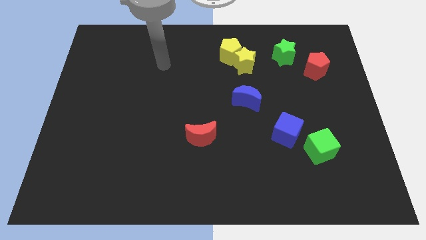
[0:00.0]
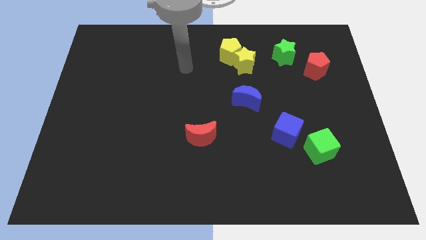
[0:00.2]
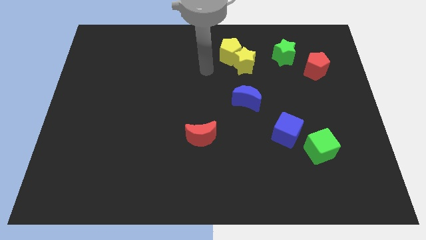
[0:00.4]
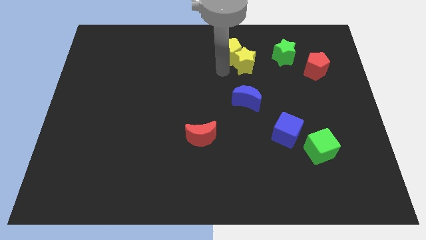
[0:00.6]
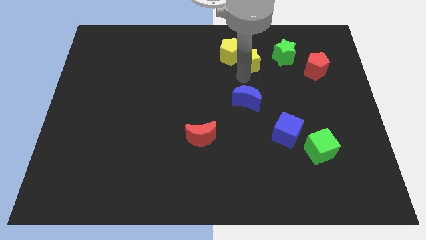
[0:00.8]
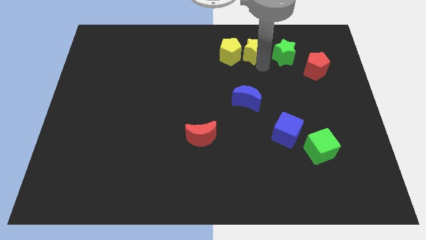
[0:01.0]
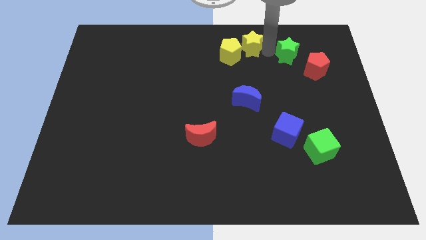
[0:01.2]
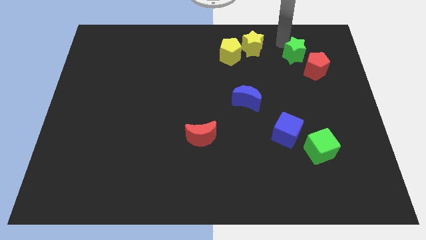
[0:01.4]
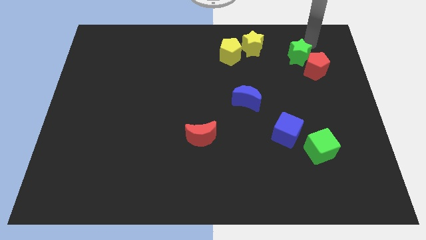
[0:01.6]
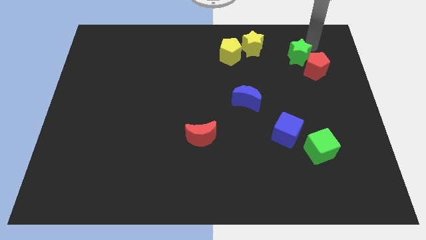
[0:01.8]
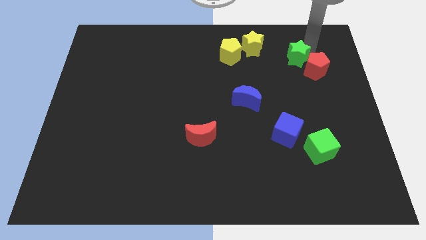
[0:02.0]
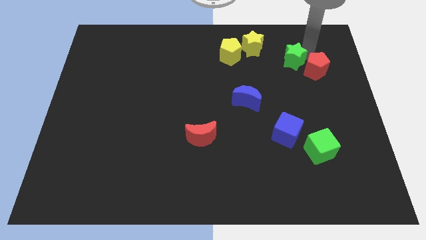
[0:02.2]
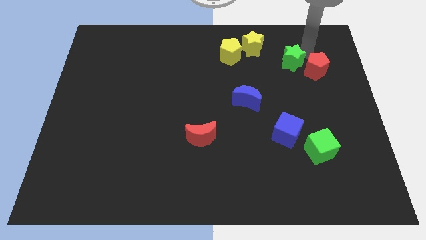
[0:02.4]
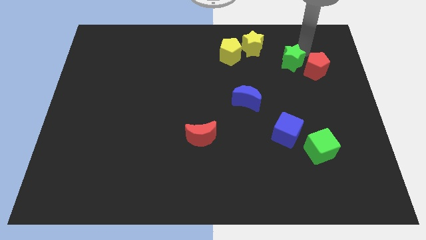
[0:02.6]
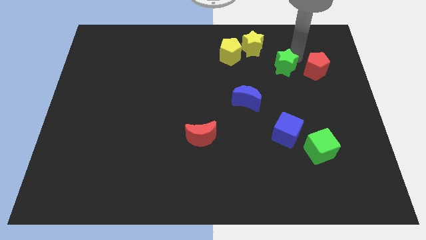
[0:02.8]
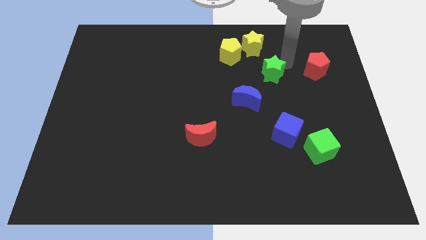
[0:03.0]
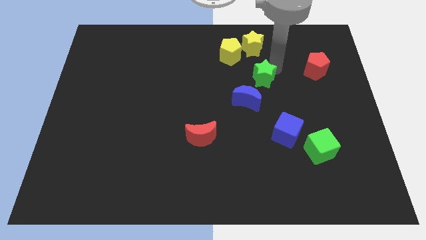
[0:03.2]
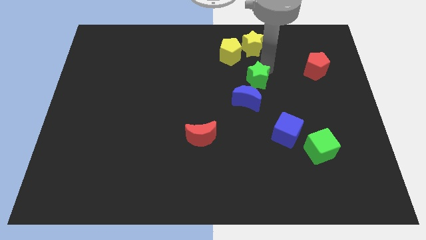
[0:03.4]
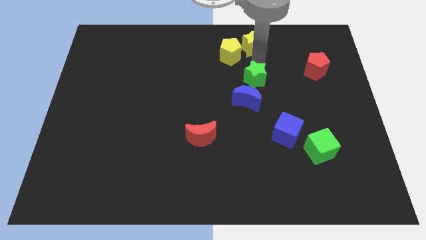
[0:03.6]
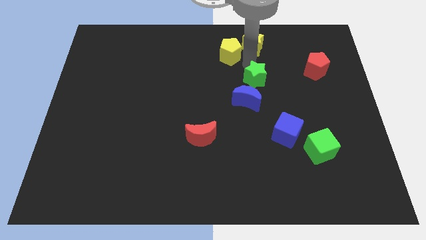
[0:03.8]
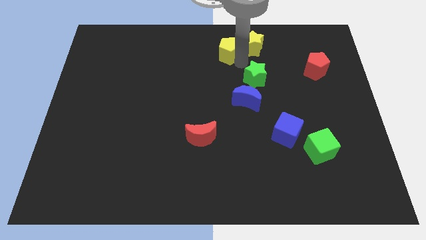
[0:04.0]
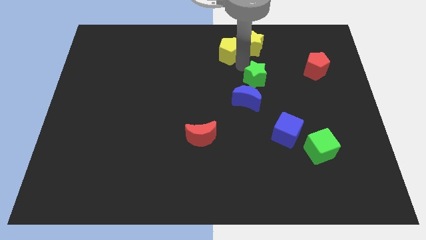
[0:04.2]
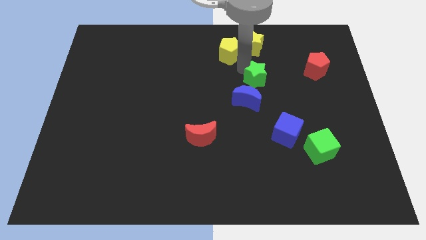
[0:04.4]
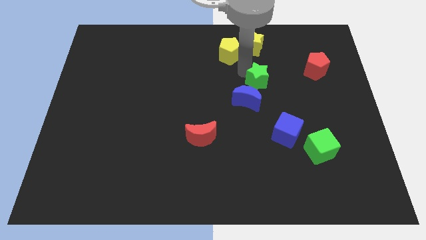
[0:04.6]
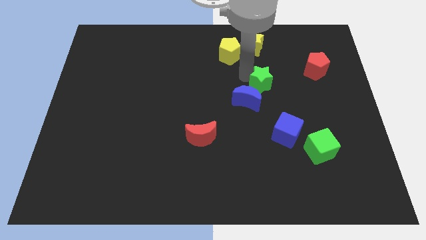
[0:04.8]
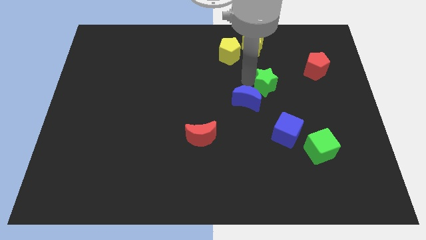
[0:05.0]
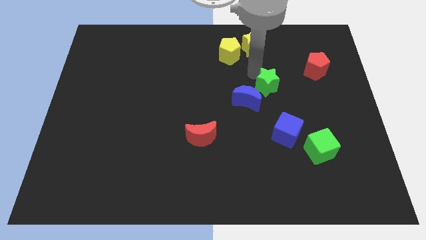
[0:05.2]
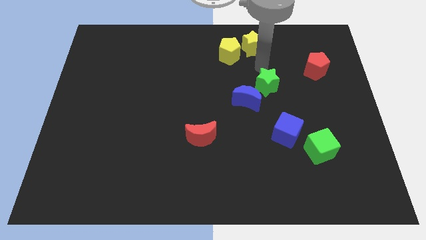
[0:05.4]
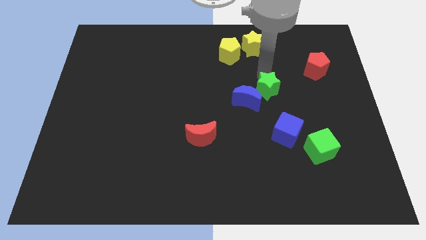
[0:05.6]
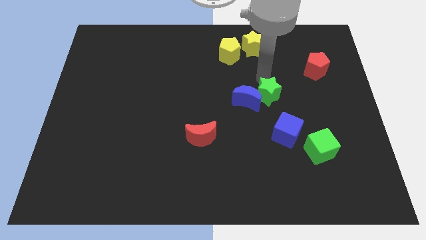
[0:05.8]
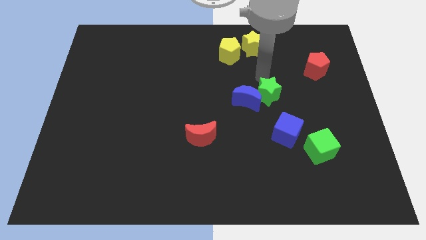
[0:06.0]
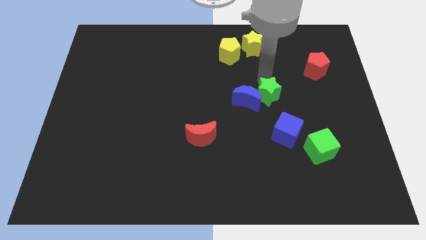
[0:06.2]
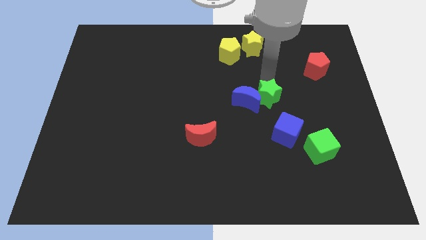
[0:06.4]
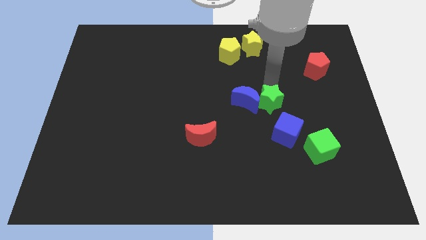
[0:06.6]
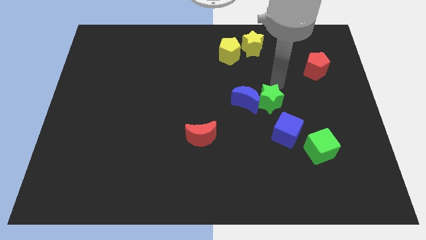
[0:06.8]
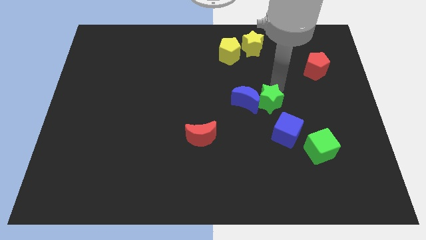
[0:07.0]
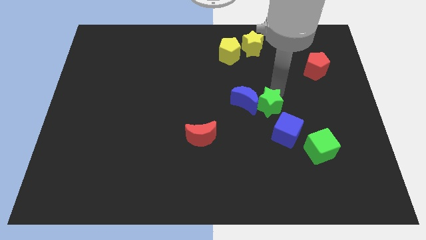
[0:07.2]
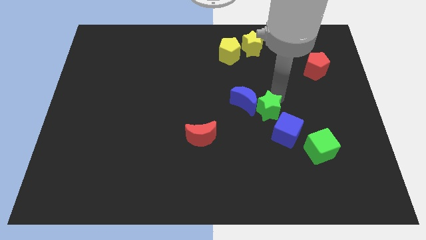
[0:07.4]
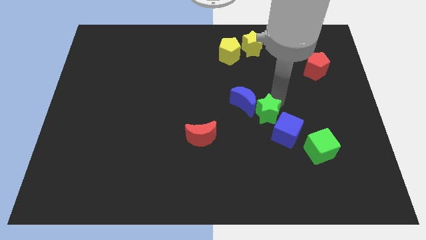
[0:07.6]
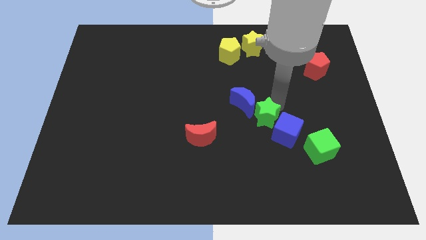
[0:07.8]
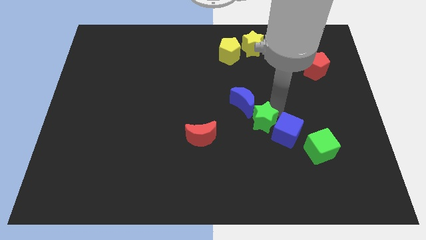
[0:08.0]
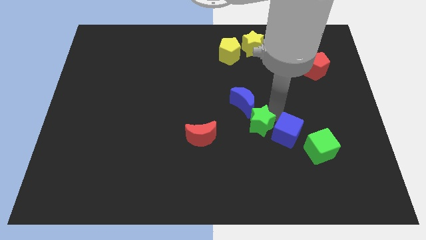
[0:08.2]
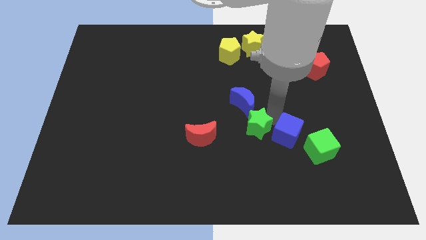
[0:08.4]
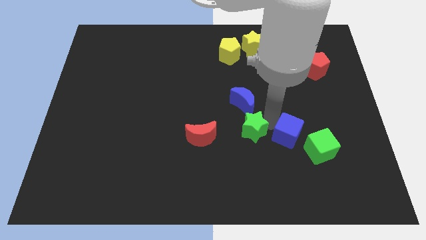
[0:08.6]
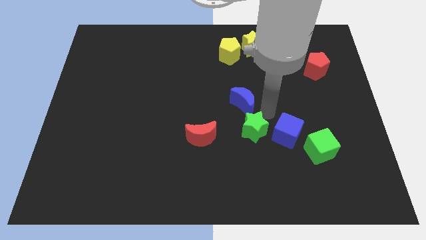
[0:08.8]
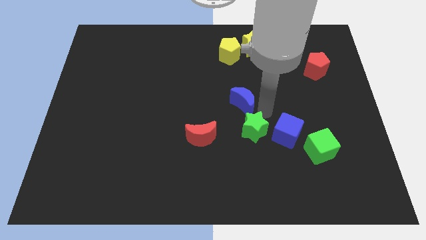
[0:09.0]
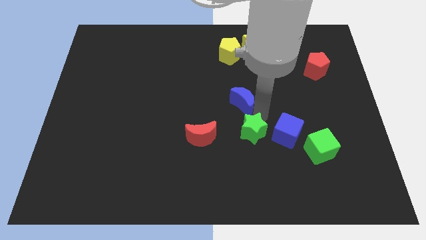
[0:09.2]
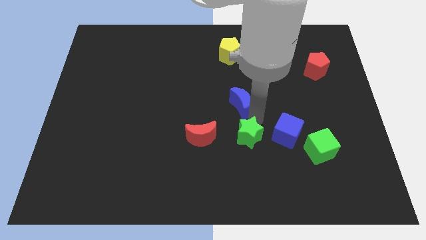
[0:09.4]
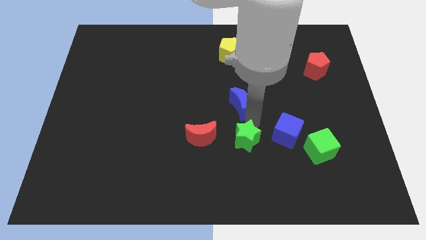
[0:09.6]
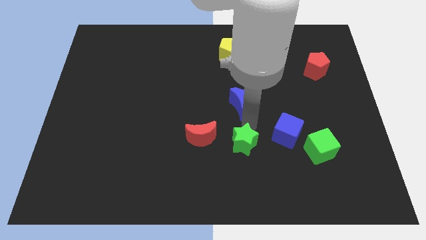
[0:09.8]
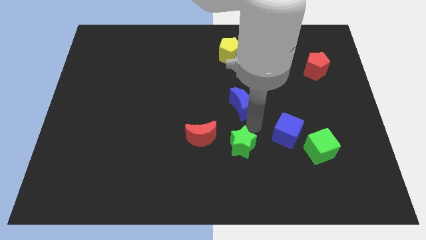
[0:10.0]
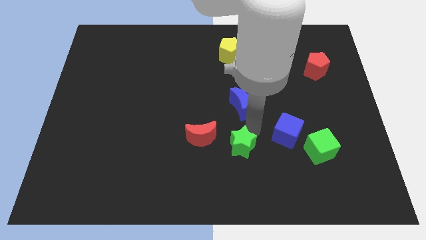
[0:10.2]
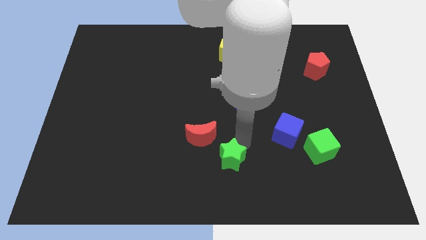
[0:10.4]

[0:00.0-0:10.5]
push the green star to the bottom

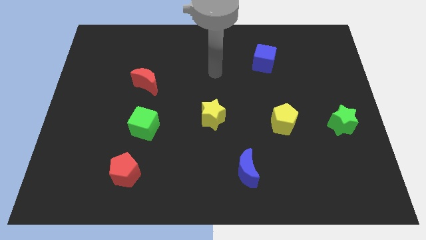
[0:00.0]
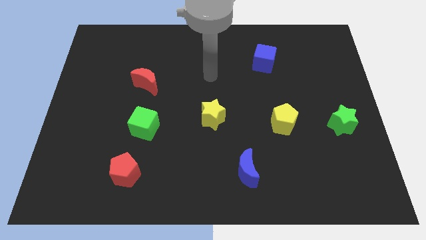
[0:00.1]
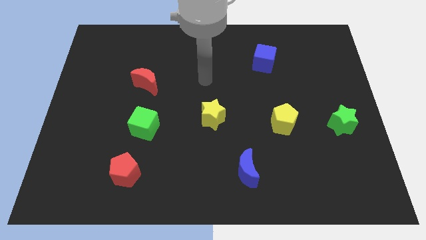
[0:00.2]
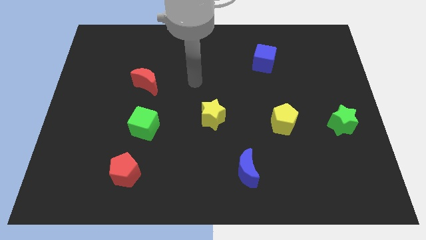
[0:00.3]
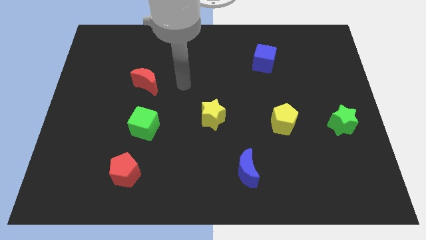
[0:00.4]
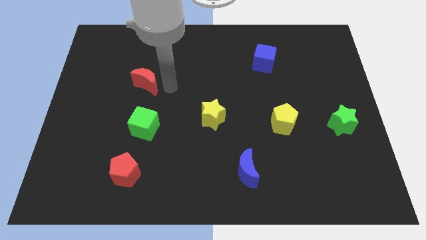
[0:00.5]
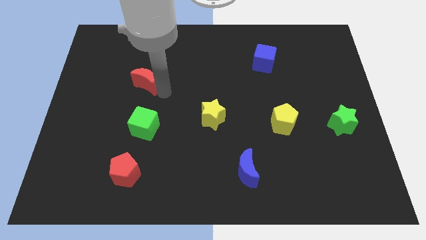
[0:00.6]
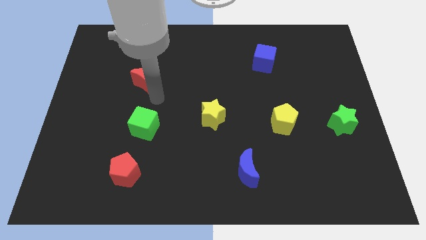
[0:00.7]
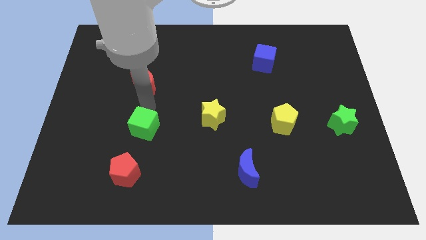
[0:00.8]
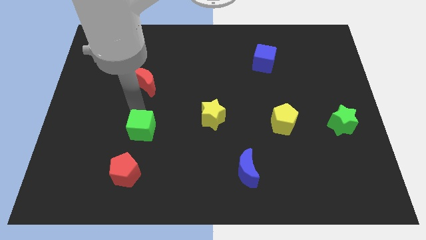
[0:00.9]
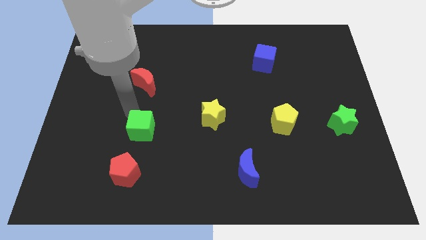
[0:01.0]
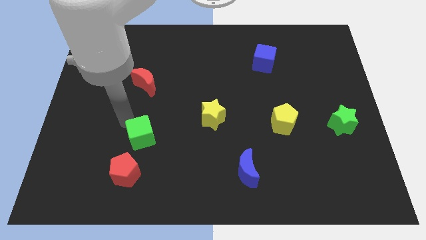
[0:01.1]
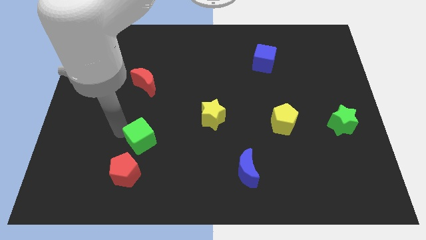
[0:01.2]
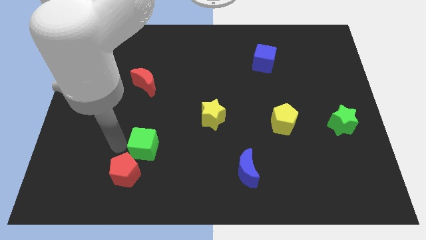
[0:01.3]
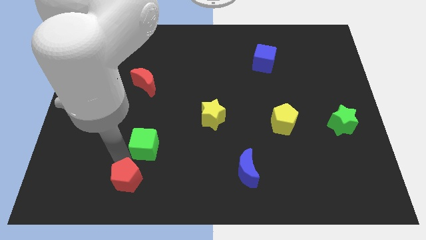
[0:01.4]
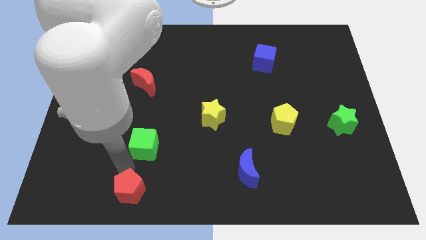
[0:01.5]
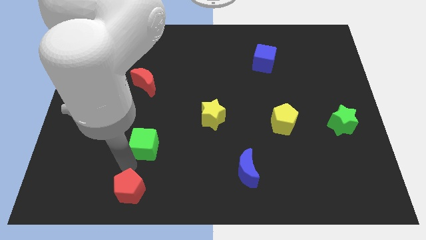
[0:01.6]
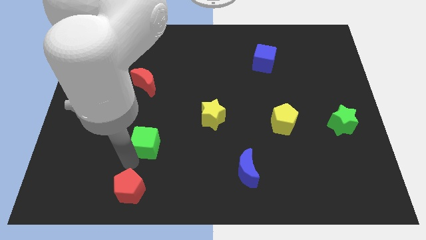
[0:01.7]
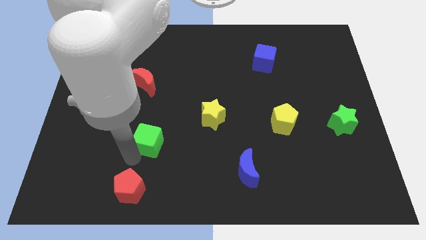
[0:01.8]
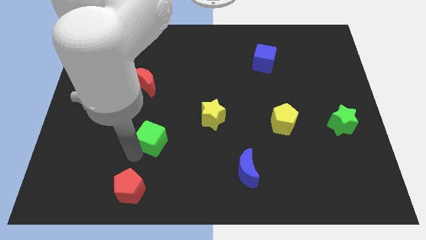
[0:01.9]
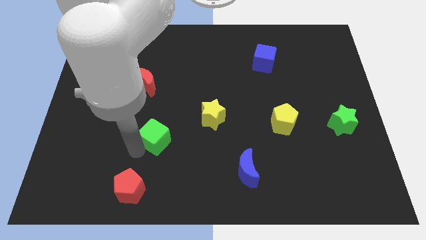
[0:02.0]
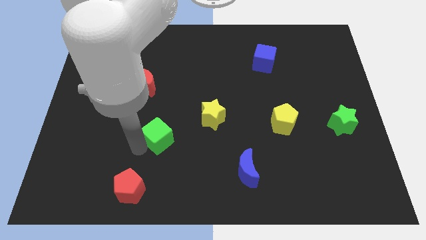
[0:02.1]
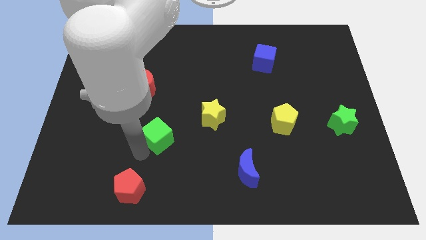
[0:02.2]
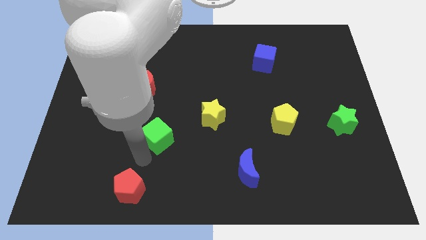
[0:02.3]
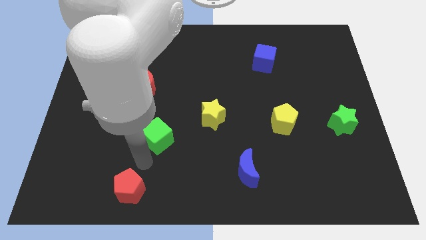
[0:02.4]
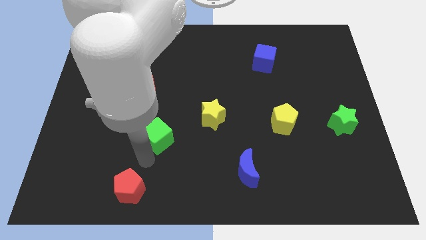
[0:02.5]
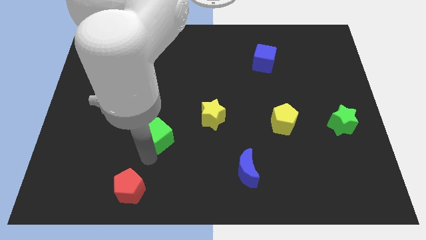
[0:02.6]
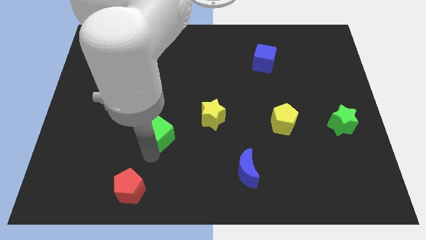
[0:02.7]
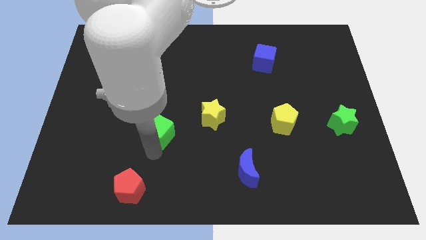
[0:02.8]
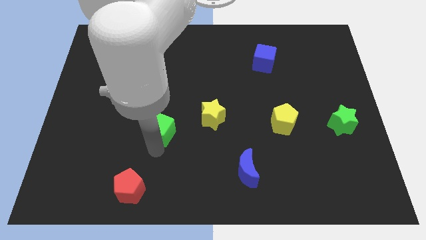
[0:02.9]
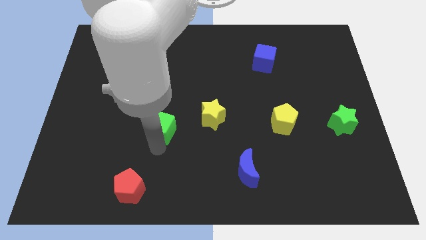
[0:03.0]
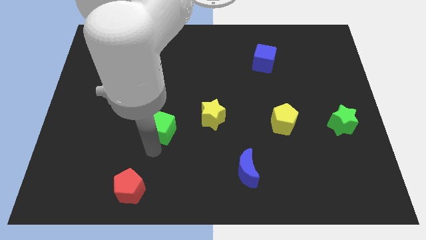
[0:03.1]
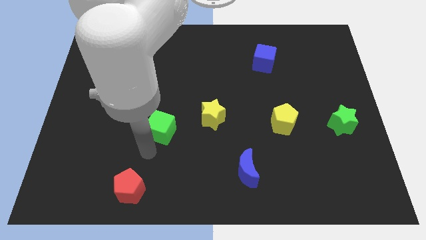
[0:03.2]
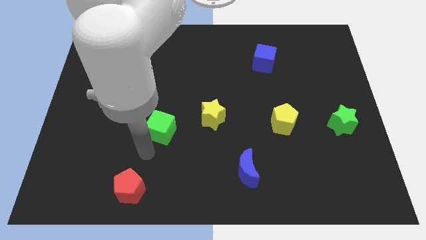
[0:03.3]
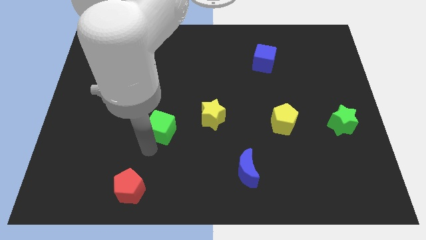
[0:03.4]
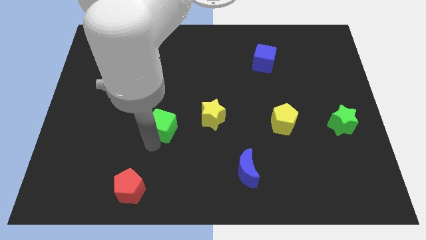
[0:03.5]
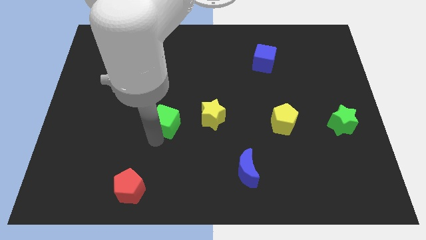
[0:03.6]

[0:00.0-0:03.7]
move the green cube to the middle
